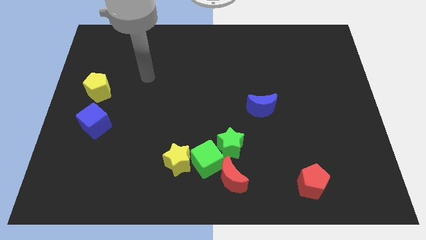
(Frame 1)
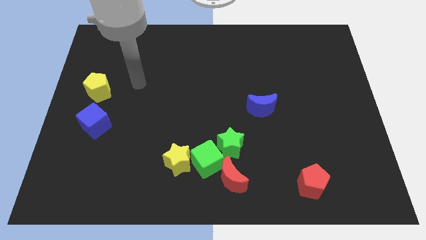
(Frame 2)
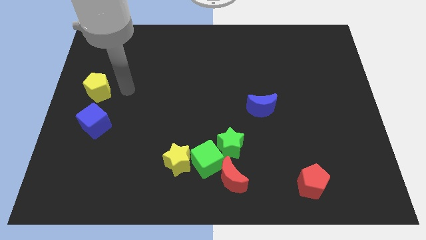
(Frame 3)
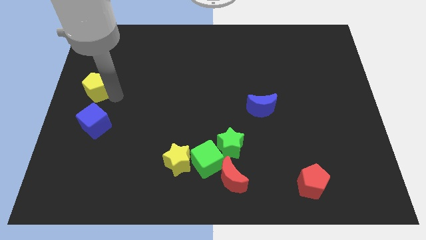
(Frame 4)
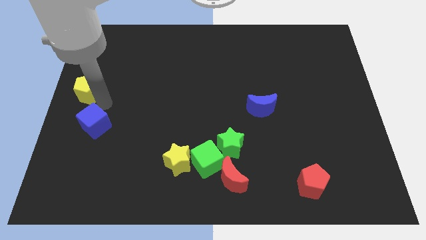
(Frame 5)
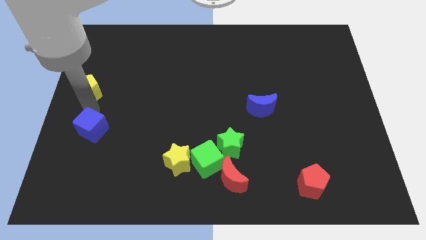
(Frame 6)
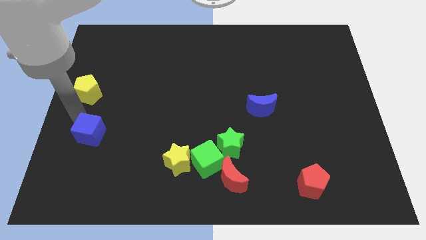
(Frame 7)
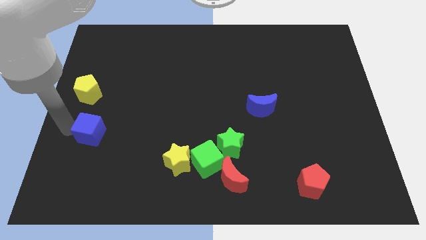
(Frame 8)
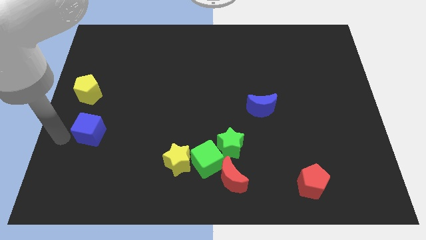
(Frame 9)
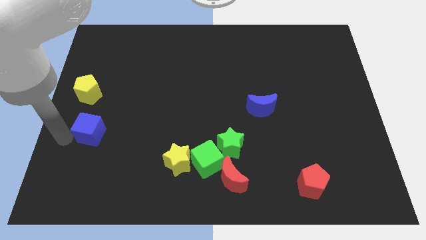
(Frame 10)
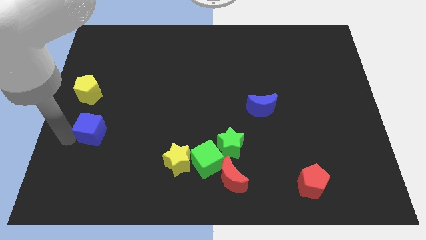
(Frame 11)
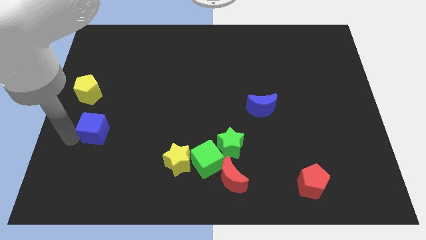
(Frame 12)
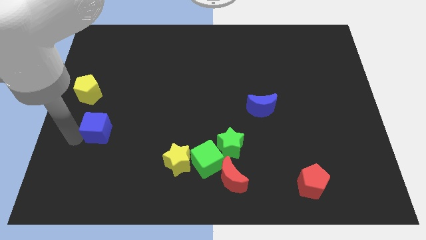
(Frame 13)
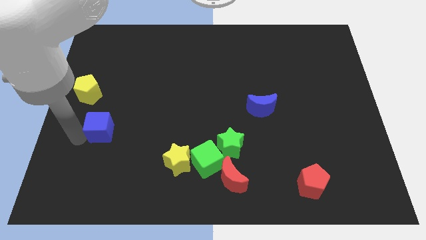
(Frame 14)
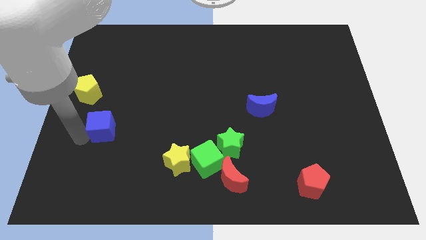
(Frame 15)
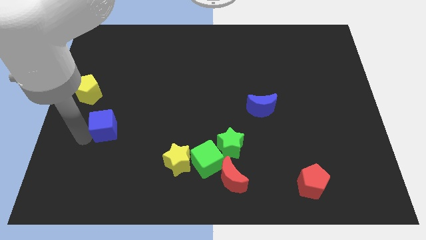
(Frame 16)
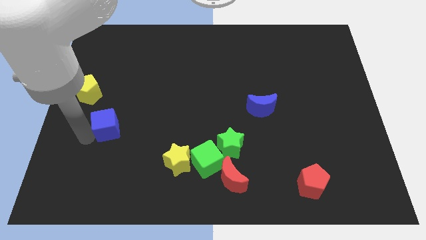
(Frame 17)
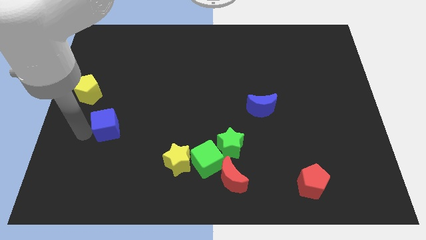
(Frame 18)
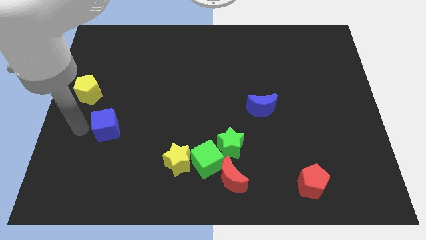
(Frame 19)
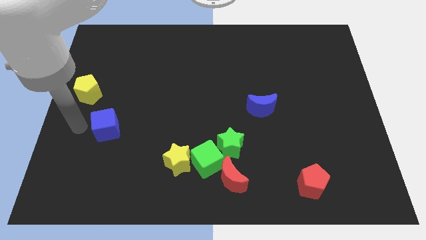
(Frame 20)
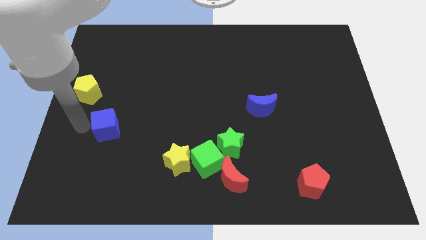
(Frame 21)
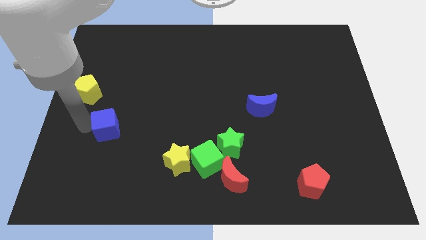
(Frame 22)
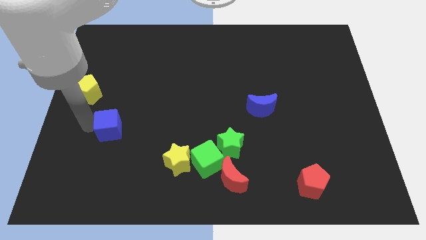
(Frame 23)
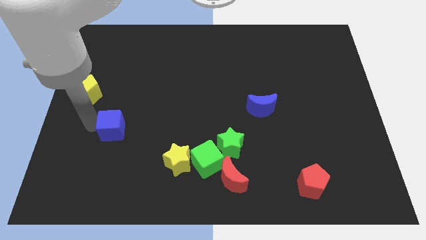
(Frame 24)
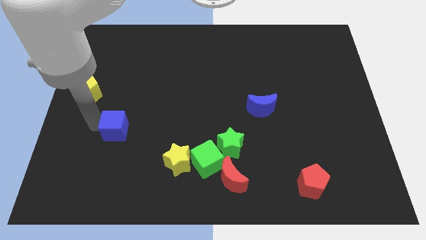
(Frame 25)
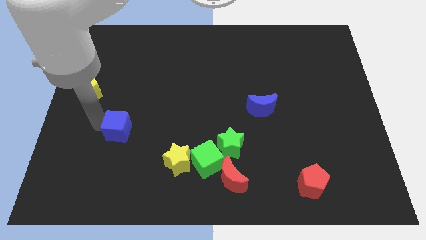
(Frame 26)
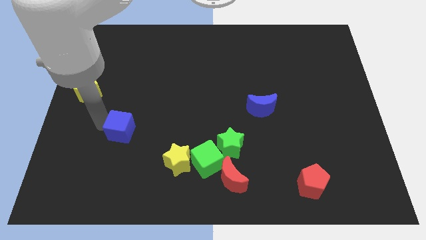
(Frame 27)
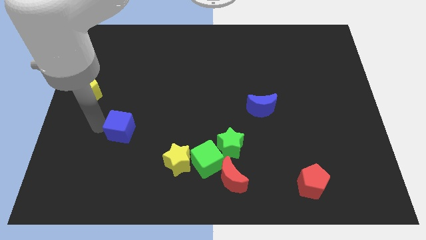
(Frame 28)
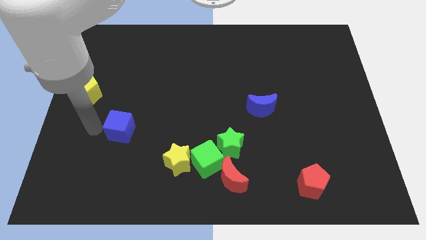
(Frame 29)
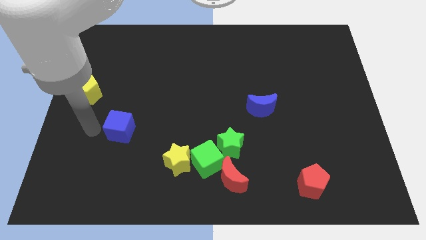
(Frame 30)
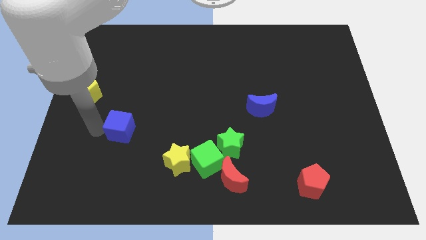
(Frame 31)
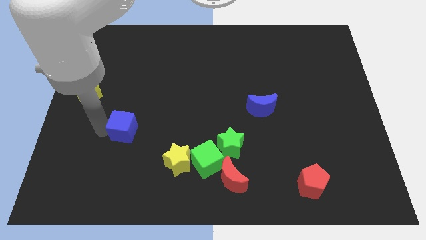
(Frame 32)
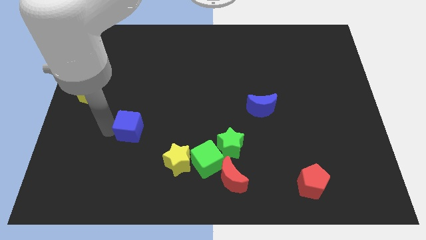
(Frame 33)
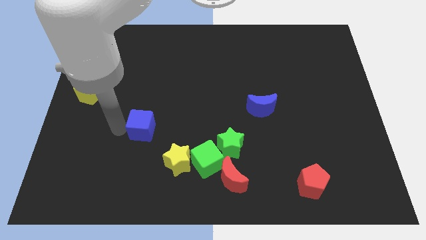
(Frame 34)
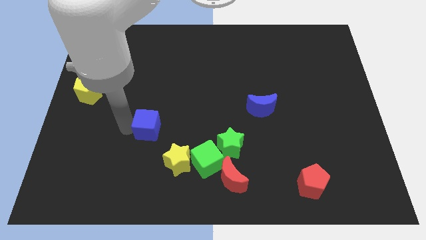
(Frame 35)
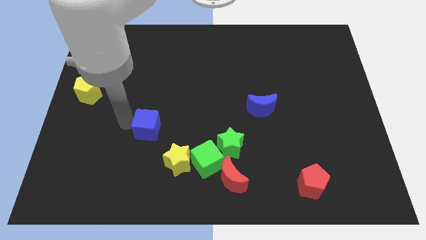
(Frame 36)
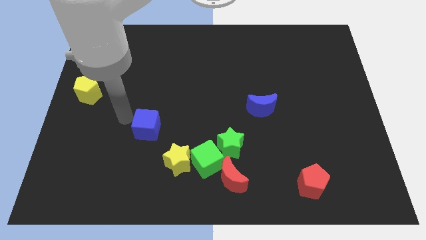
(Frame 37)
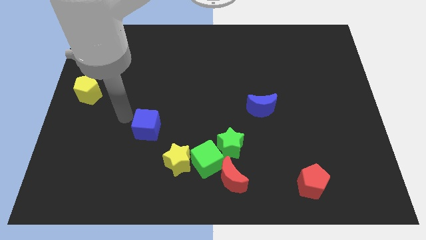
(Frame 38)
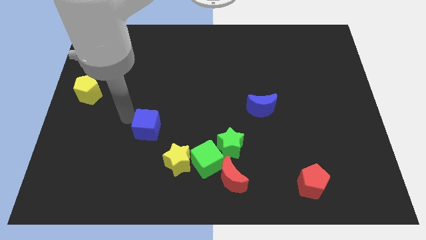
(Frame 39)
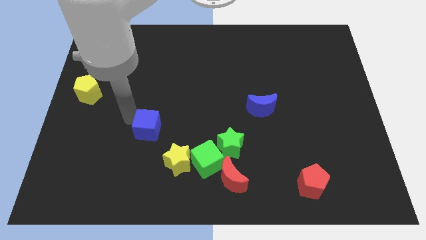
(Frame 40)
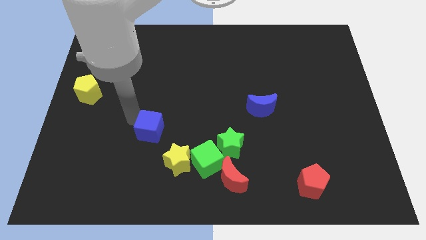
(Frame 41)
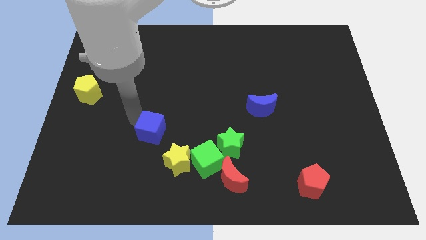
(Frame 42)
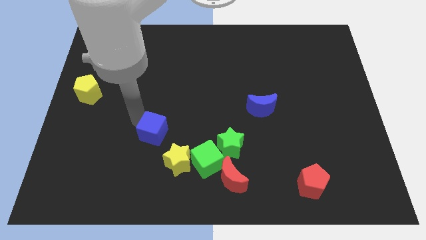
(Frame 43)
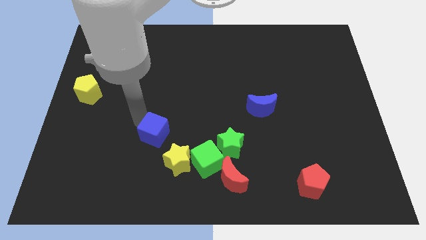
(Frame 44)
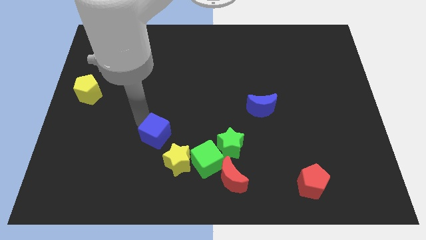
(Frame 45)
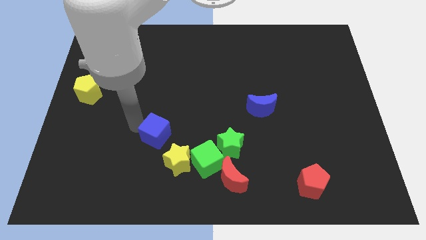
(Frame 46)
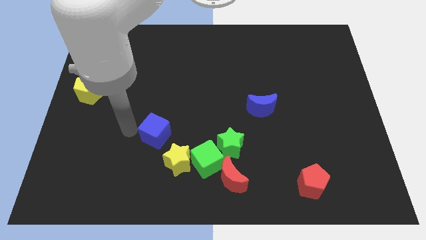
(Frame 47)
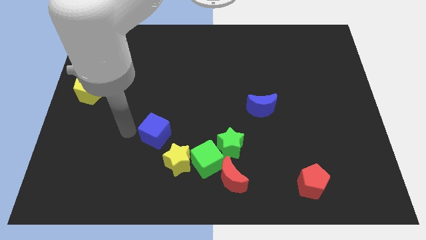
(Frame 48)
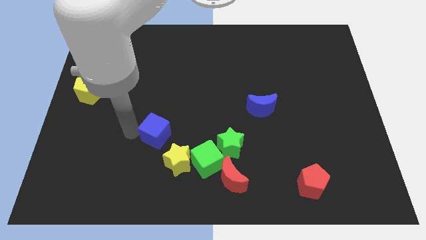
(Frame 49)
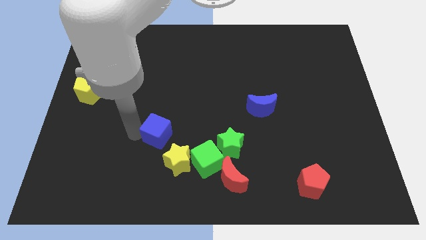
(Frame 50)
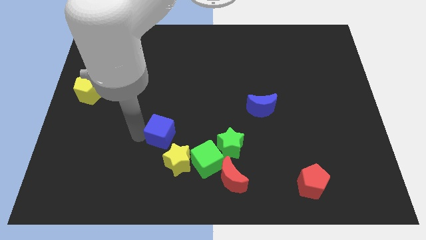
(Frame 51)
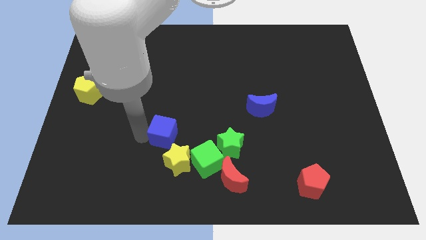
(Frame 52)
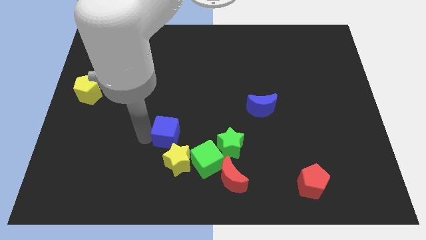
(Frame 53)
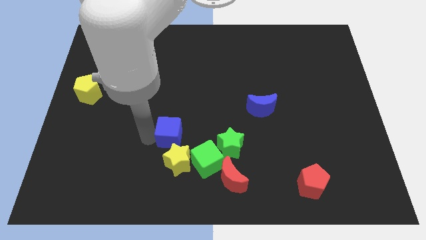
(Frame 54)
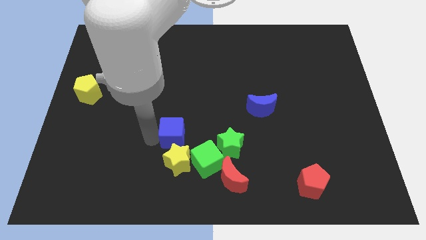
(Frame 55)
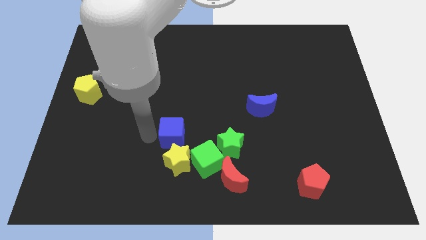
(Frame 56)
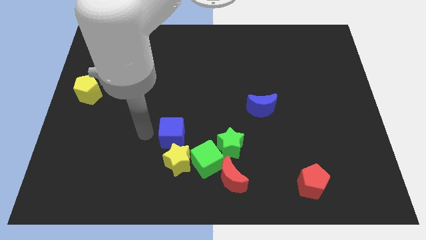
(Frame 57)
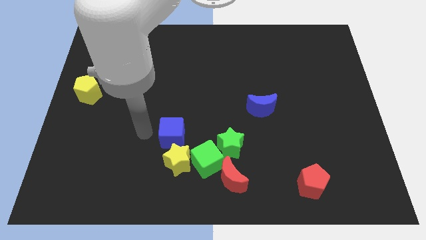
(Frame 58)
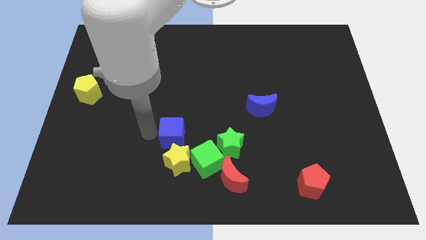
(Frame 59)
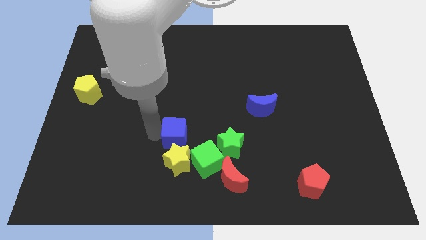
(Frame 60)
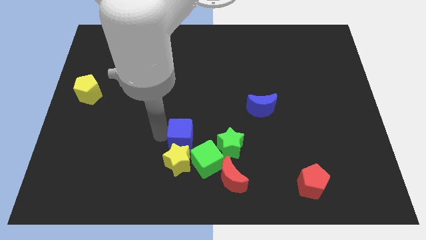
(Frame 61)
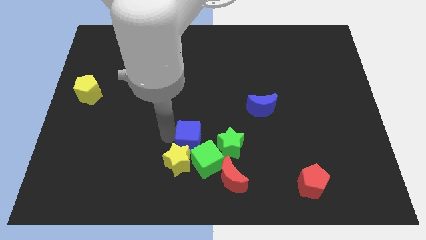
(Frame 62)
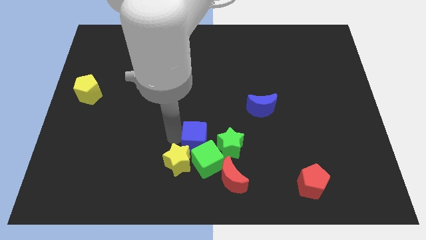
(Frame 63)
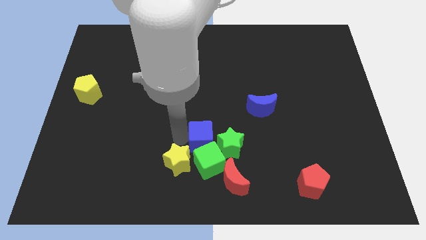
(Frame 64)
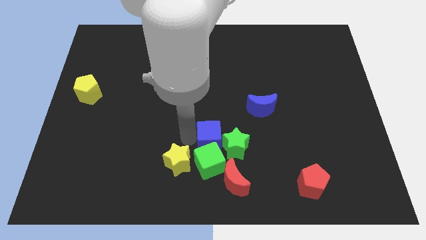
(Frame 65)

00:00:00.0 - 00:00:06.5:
put the blue cube towards the green star
